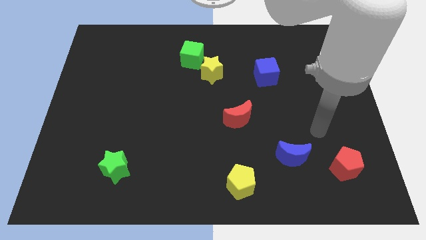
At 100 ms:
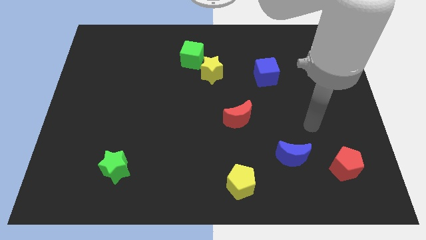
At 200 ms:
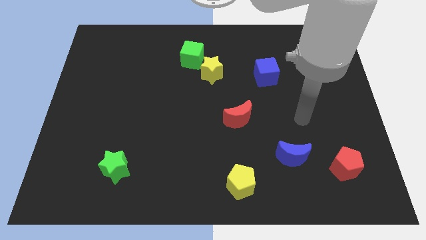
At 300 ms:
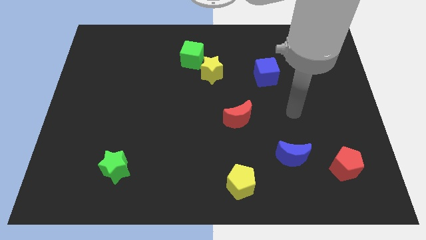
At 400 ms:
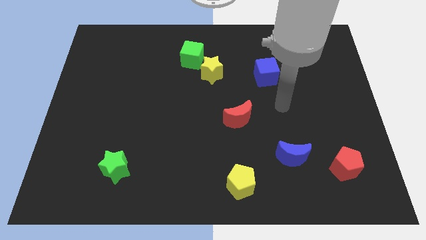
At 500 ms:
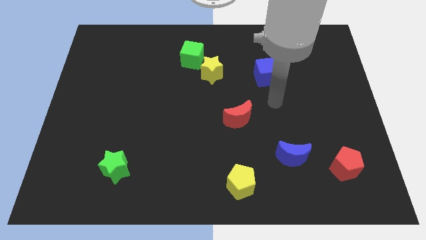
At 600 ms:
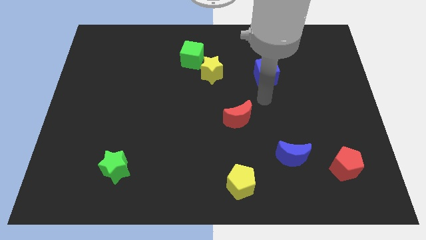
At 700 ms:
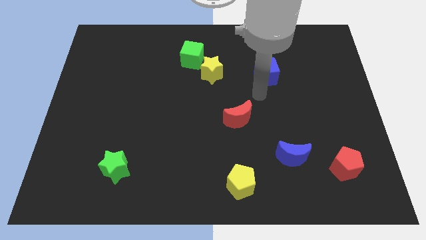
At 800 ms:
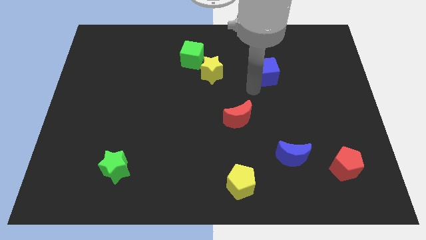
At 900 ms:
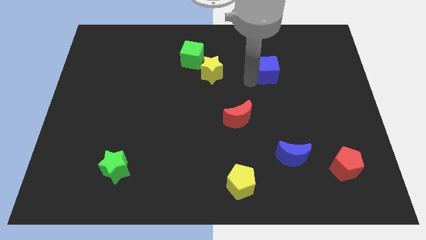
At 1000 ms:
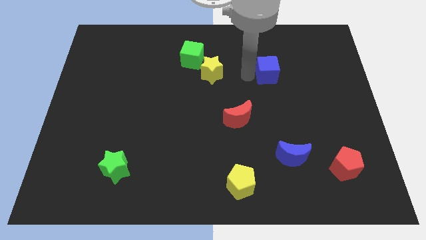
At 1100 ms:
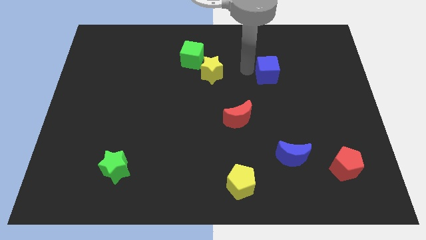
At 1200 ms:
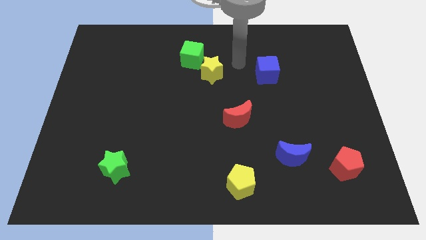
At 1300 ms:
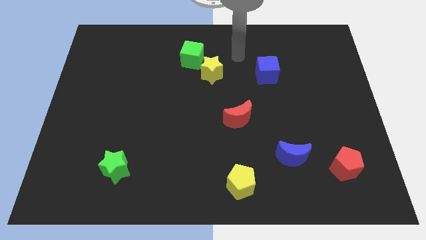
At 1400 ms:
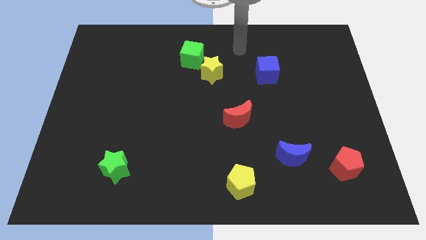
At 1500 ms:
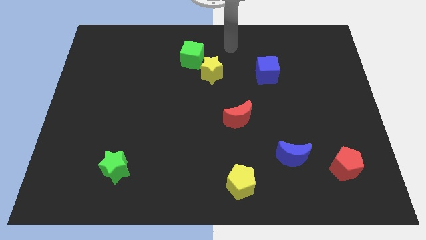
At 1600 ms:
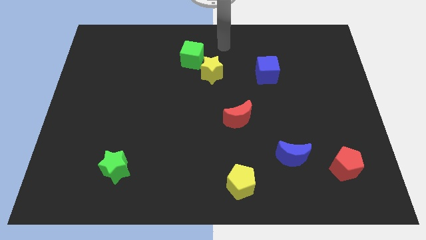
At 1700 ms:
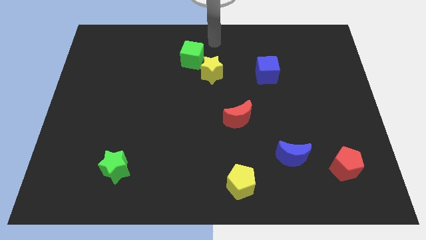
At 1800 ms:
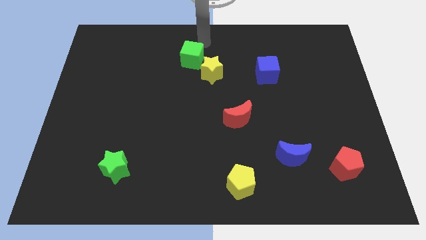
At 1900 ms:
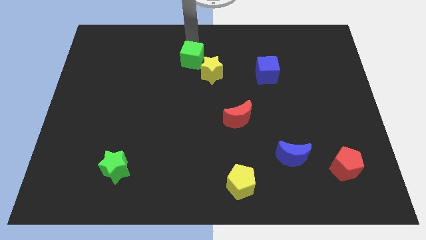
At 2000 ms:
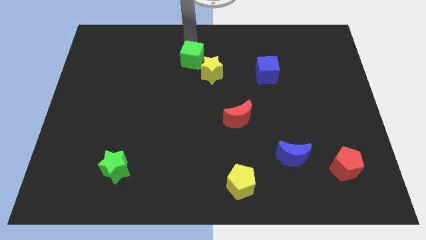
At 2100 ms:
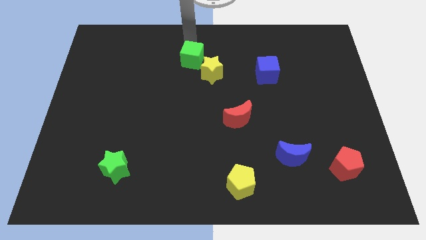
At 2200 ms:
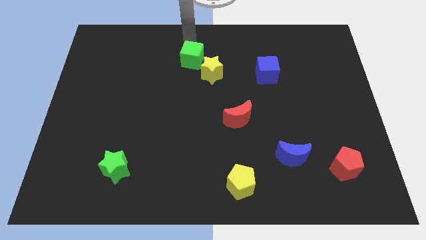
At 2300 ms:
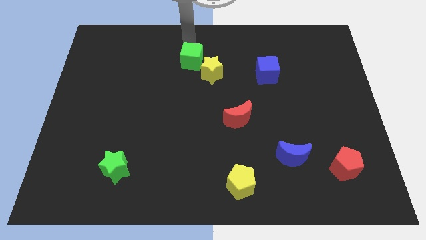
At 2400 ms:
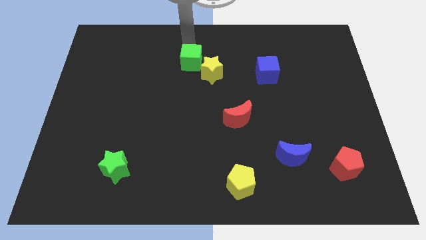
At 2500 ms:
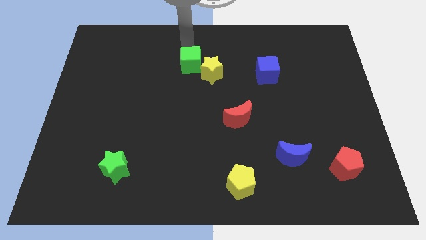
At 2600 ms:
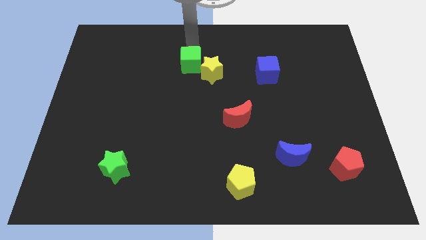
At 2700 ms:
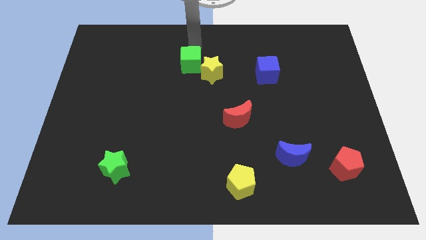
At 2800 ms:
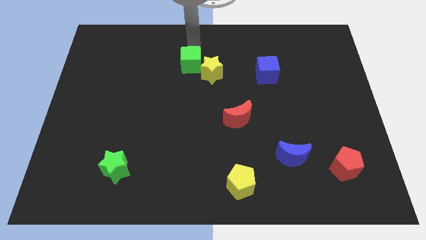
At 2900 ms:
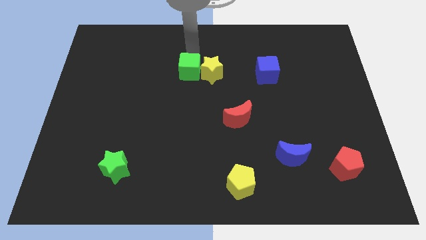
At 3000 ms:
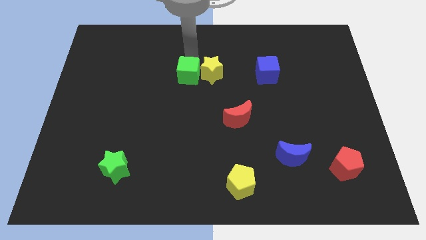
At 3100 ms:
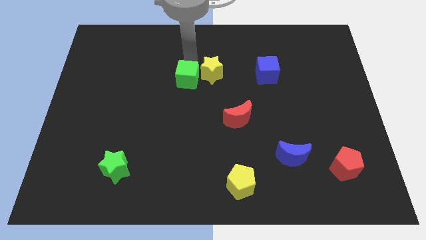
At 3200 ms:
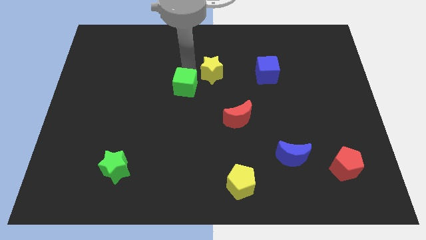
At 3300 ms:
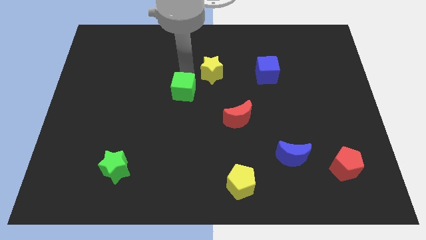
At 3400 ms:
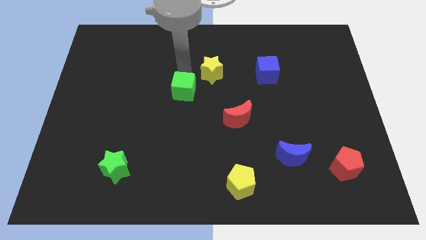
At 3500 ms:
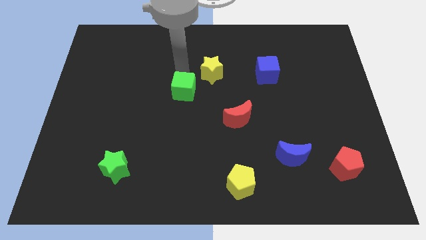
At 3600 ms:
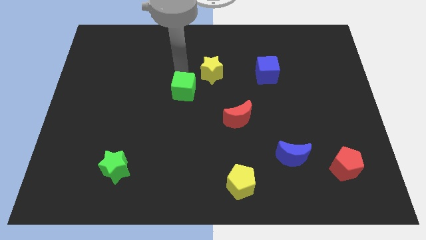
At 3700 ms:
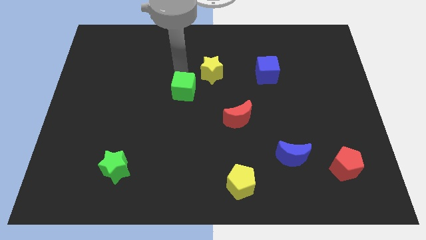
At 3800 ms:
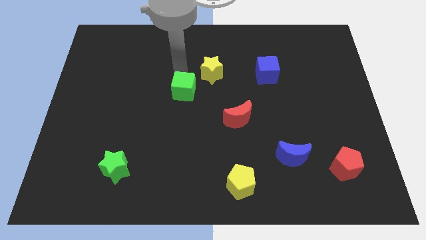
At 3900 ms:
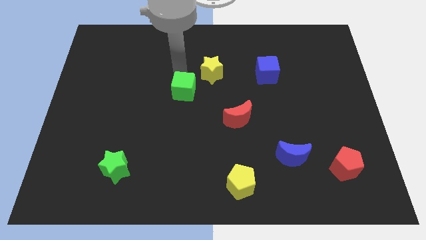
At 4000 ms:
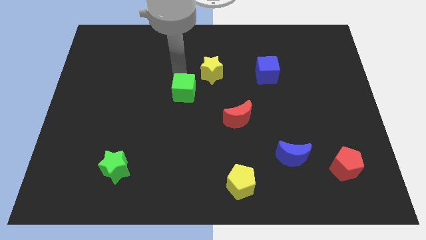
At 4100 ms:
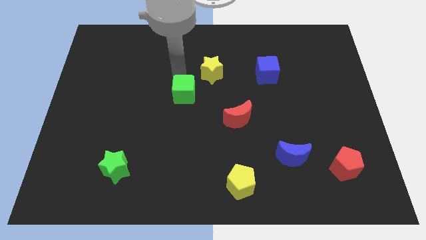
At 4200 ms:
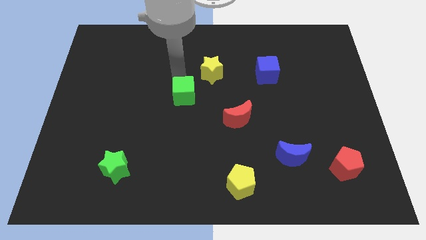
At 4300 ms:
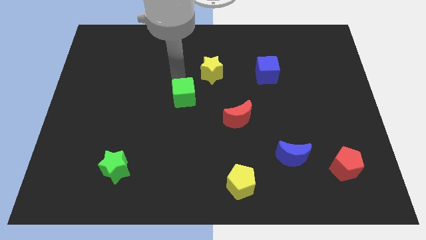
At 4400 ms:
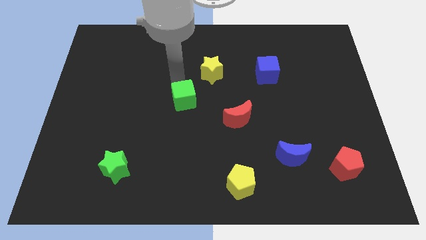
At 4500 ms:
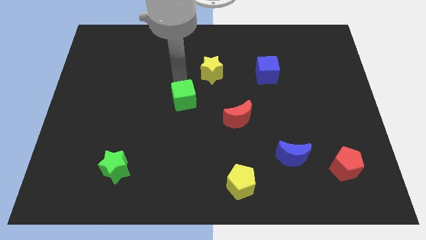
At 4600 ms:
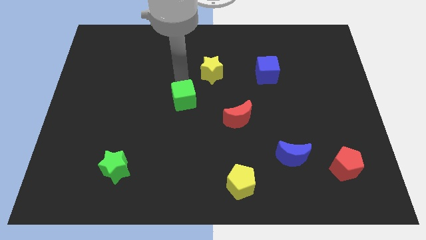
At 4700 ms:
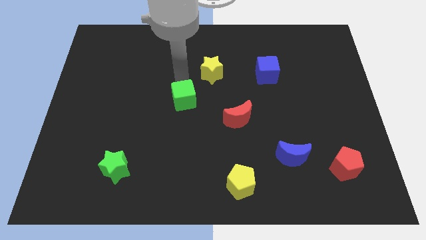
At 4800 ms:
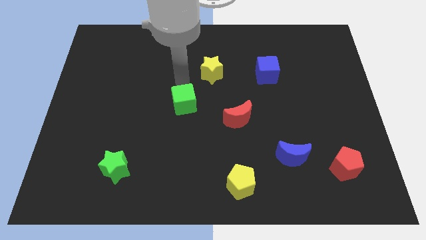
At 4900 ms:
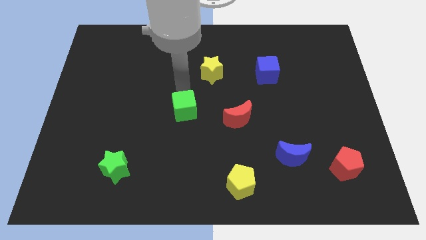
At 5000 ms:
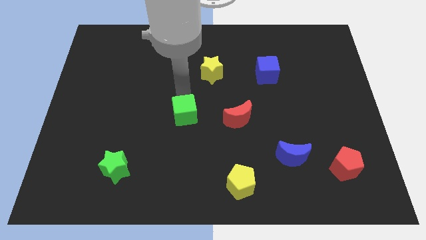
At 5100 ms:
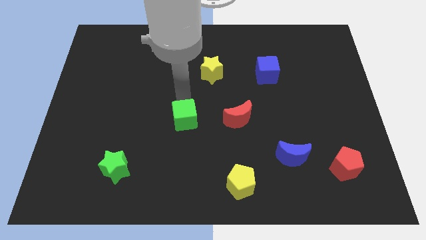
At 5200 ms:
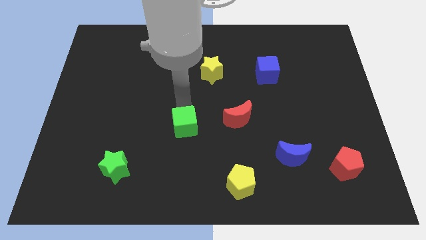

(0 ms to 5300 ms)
move the green cube down

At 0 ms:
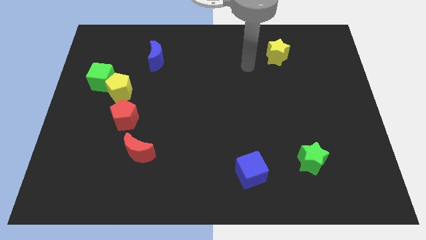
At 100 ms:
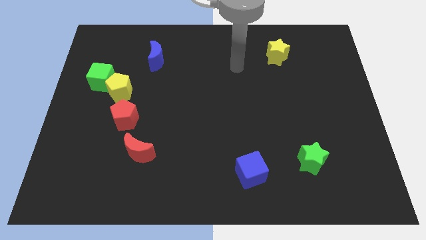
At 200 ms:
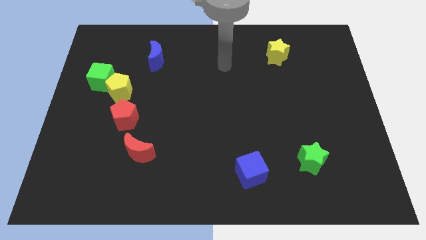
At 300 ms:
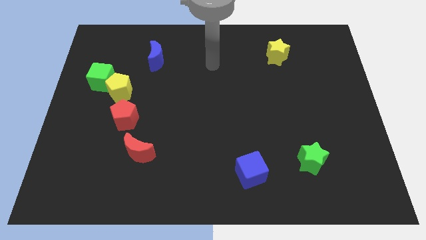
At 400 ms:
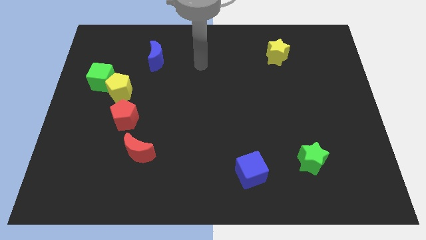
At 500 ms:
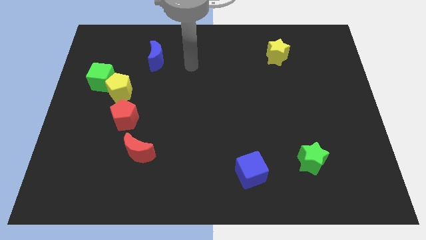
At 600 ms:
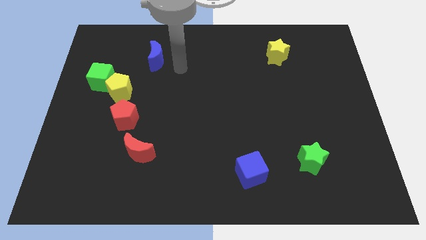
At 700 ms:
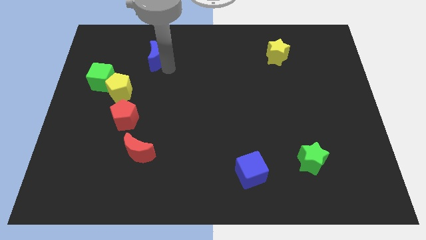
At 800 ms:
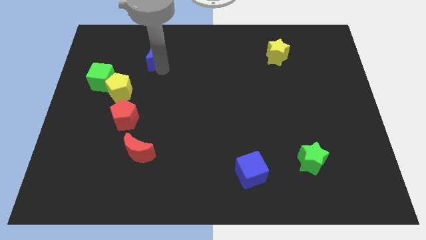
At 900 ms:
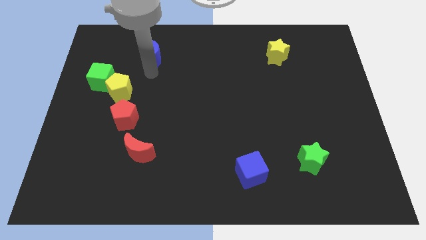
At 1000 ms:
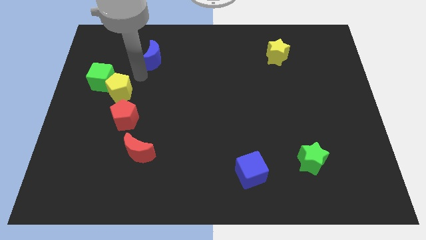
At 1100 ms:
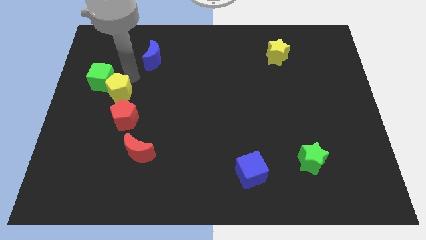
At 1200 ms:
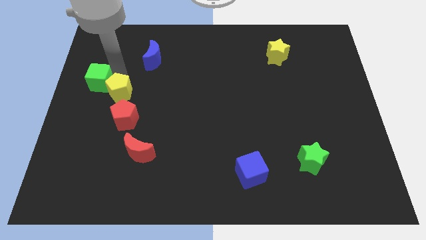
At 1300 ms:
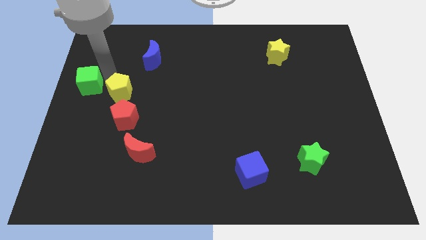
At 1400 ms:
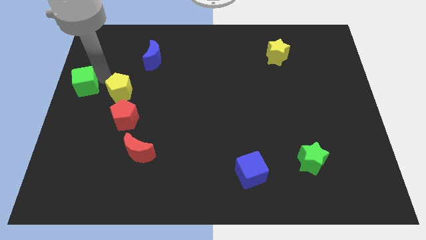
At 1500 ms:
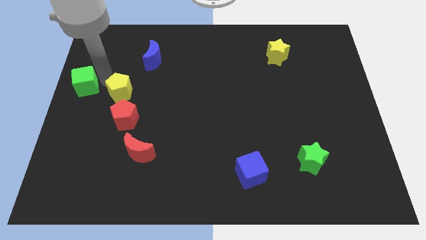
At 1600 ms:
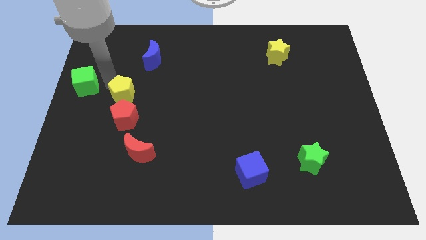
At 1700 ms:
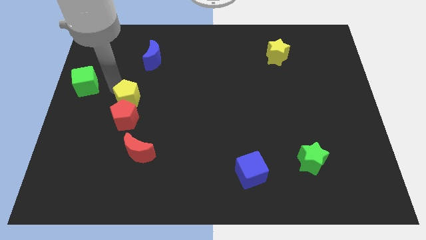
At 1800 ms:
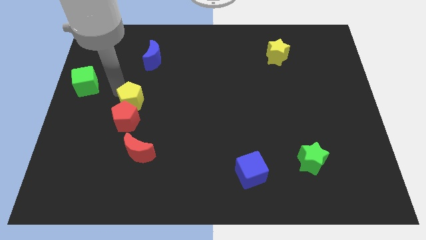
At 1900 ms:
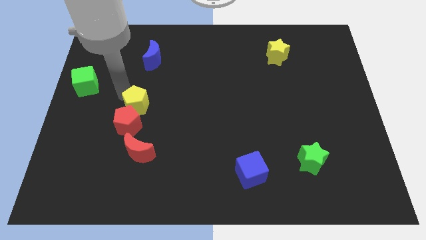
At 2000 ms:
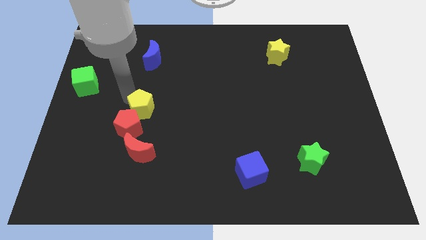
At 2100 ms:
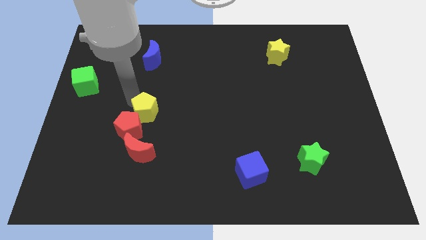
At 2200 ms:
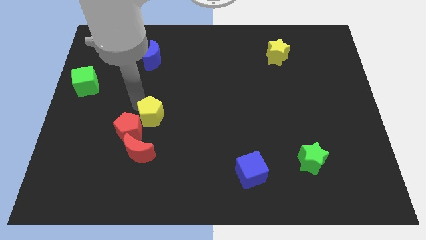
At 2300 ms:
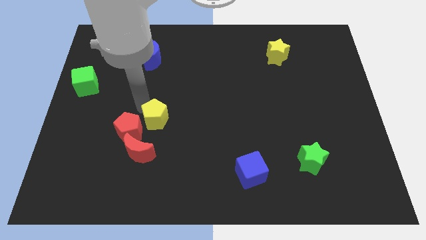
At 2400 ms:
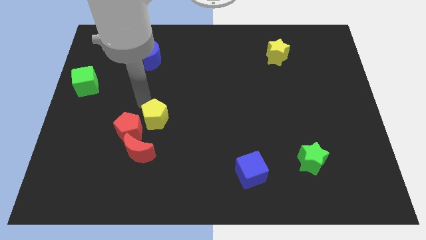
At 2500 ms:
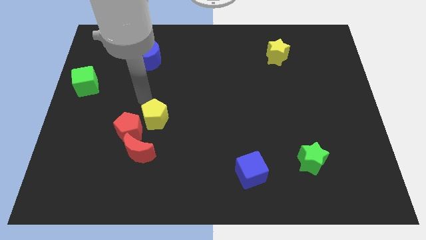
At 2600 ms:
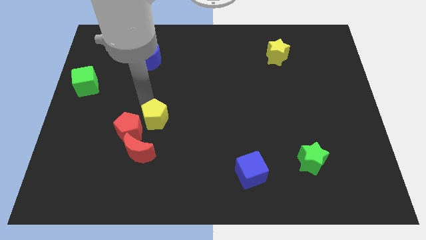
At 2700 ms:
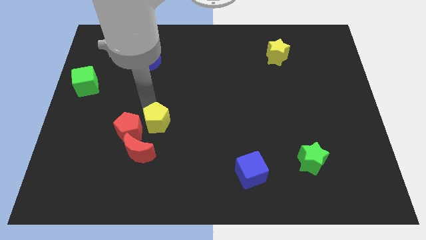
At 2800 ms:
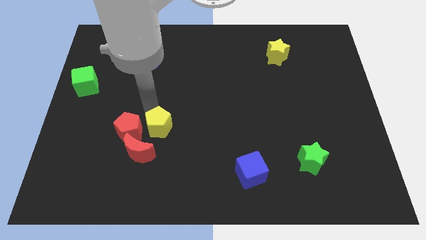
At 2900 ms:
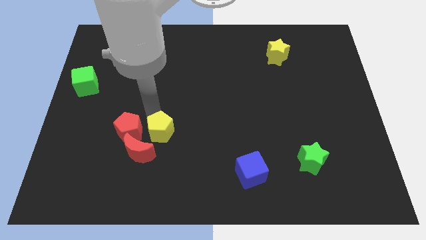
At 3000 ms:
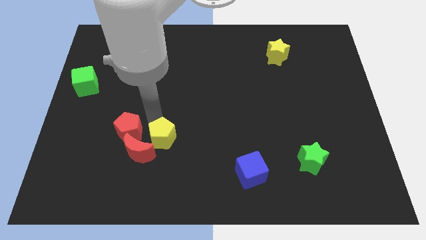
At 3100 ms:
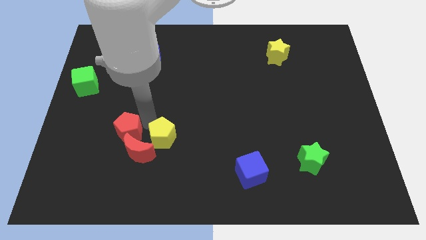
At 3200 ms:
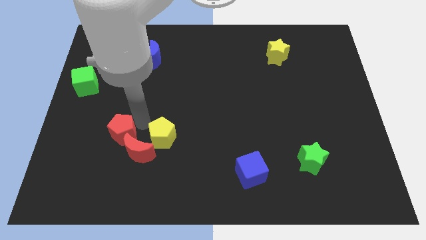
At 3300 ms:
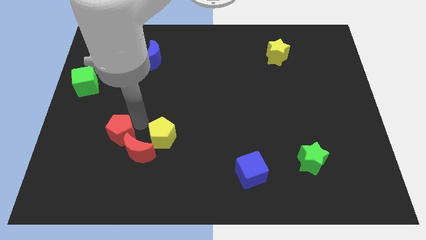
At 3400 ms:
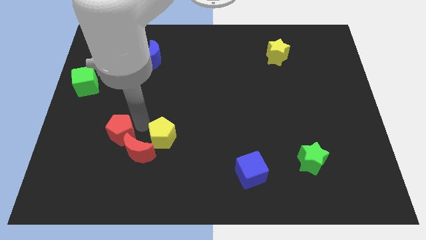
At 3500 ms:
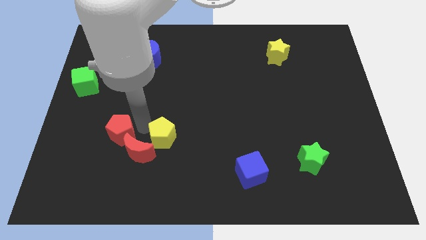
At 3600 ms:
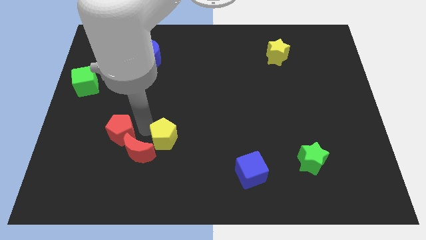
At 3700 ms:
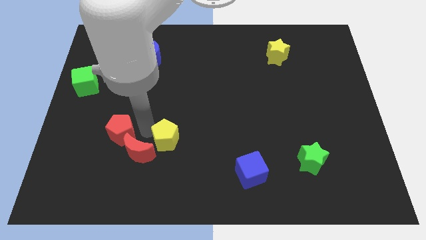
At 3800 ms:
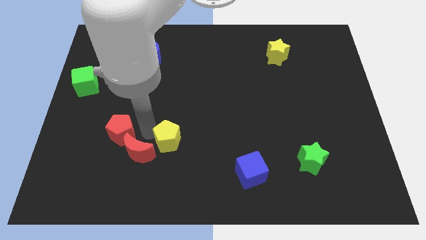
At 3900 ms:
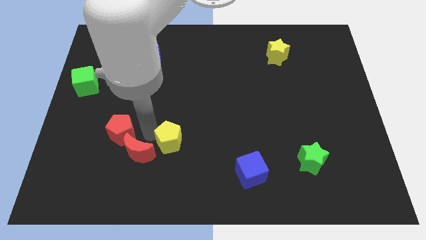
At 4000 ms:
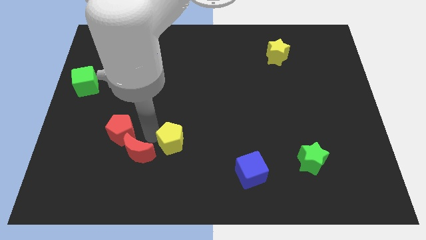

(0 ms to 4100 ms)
slide the yellow pentagon diagonally down and to the right
